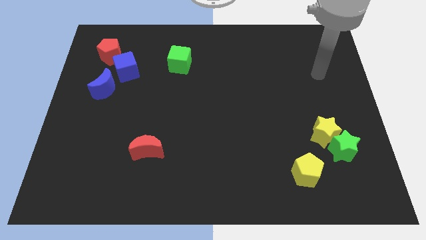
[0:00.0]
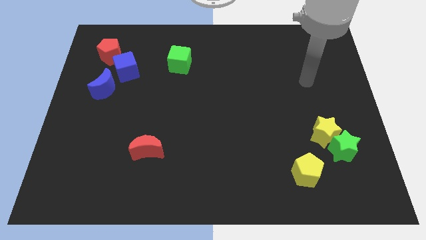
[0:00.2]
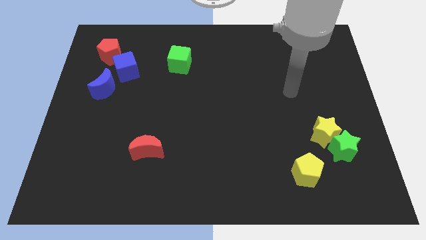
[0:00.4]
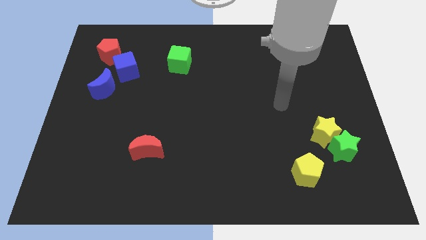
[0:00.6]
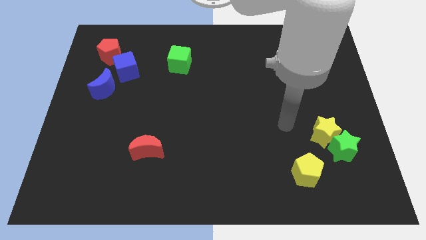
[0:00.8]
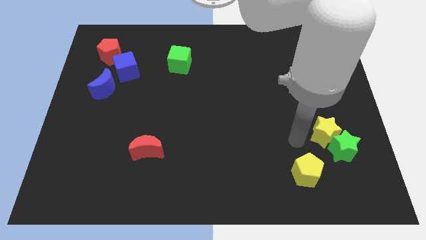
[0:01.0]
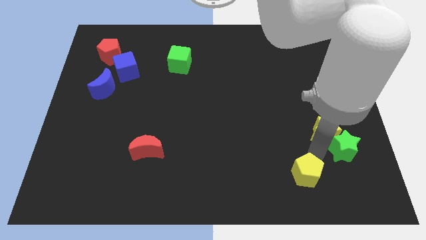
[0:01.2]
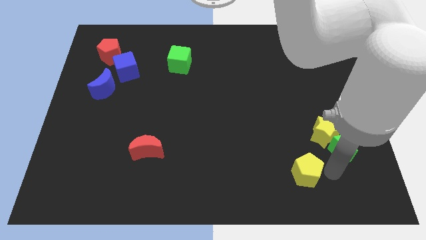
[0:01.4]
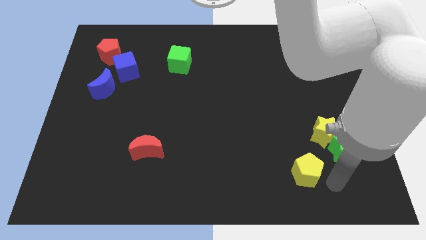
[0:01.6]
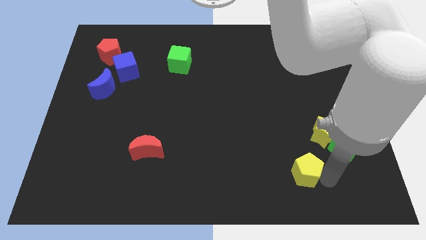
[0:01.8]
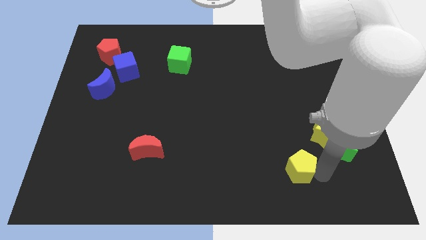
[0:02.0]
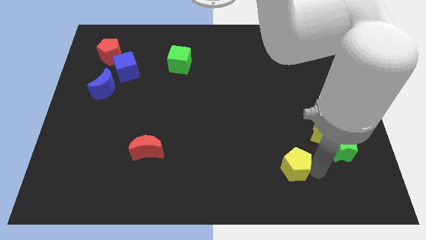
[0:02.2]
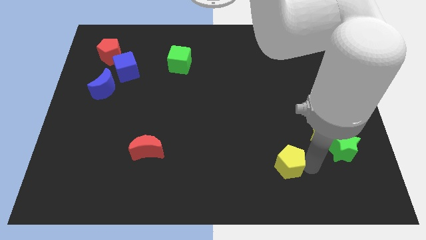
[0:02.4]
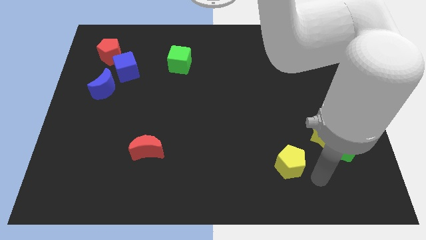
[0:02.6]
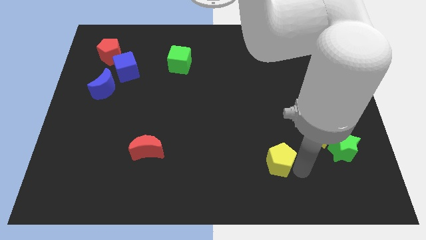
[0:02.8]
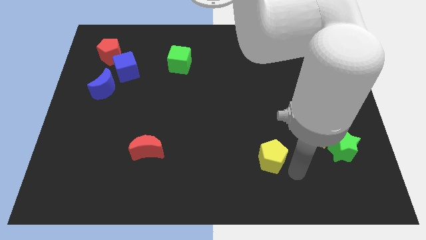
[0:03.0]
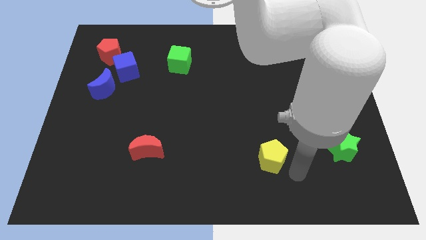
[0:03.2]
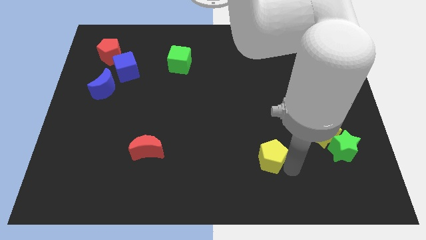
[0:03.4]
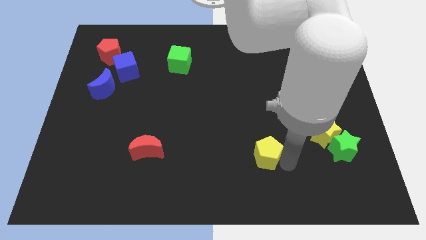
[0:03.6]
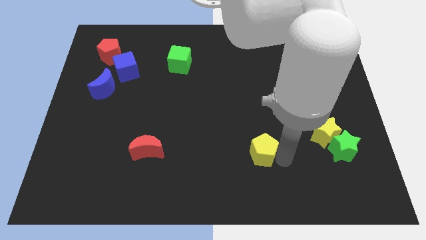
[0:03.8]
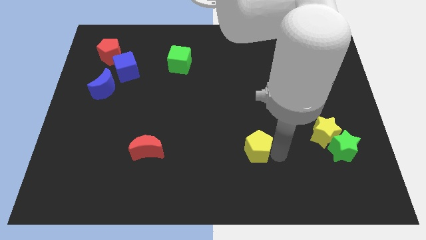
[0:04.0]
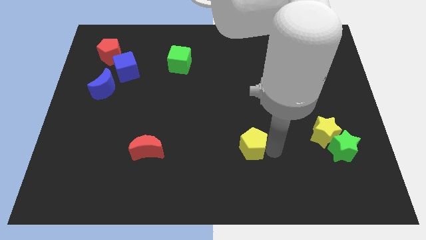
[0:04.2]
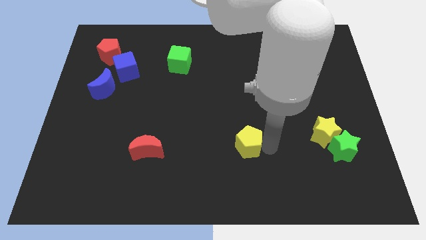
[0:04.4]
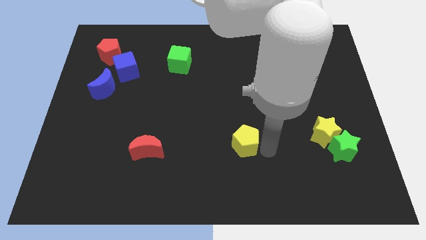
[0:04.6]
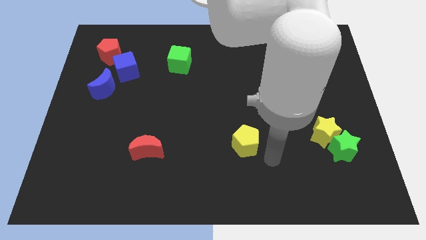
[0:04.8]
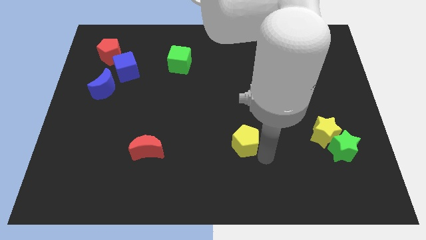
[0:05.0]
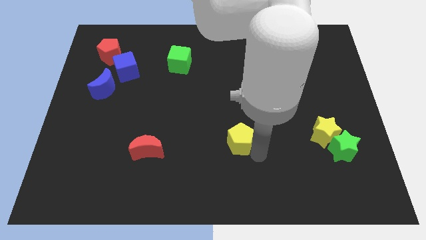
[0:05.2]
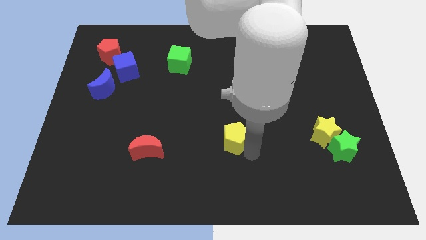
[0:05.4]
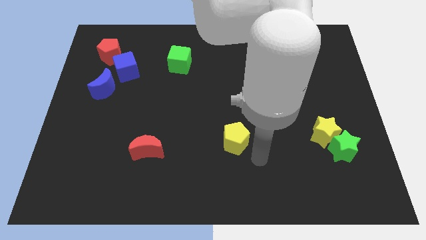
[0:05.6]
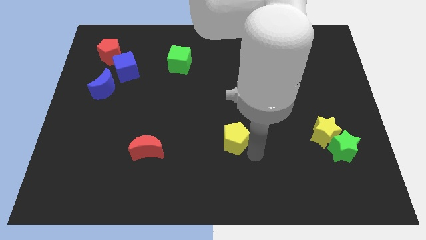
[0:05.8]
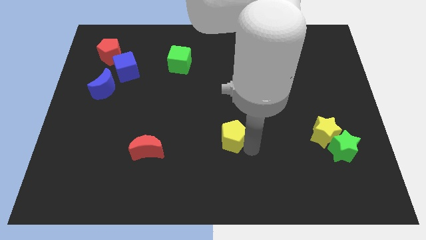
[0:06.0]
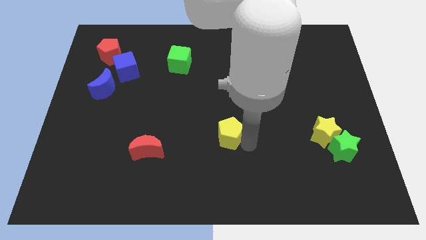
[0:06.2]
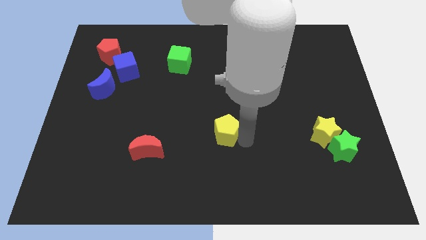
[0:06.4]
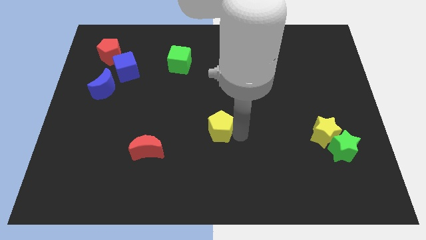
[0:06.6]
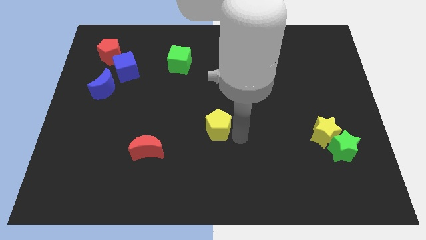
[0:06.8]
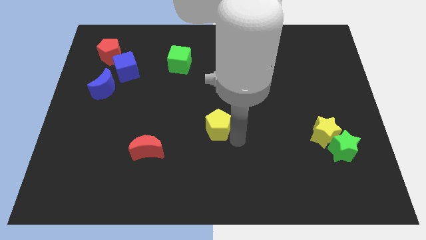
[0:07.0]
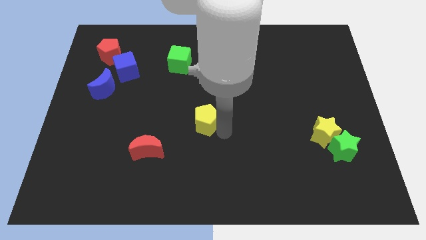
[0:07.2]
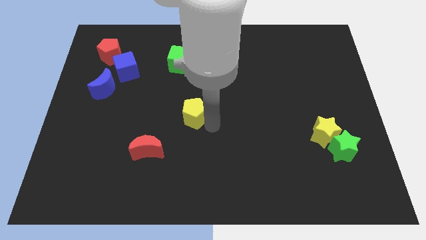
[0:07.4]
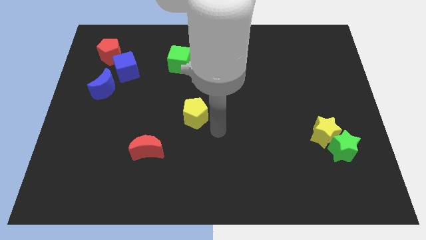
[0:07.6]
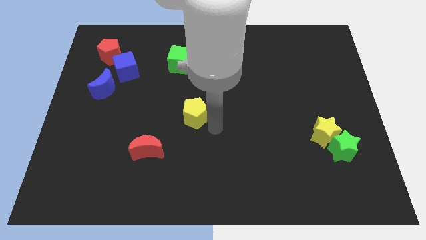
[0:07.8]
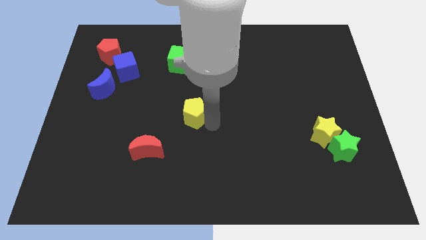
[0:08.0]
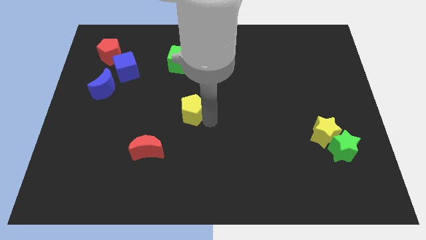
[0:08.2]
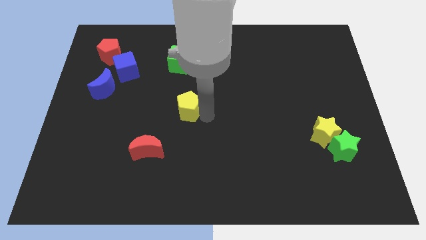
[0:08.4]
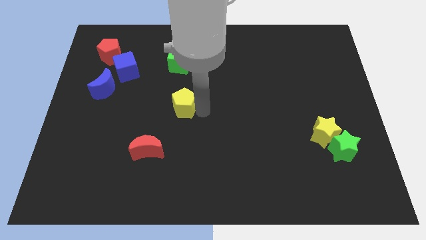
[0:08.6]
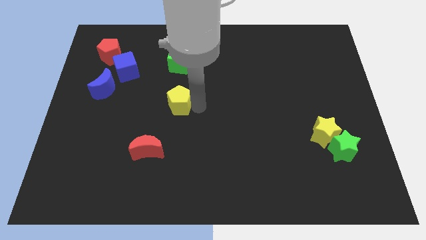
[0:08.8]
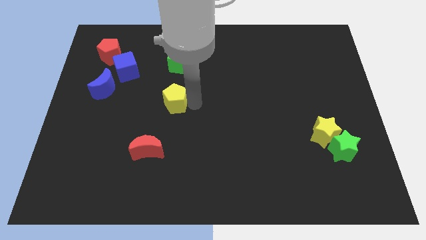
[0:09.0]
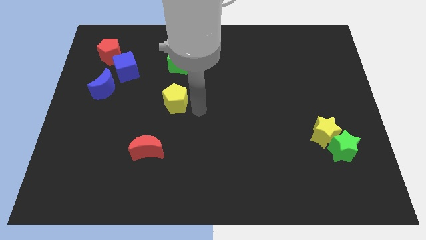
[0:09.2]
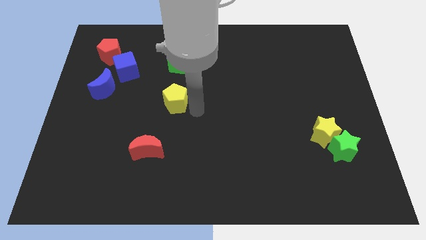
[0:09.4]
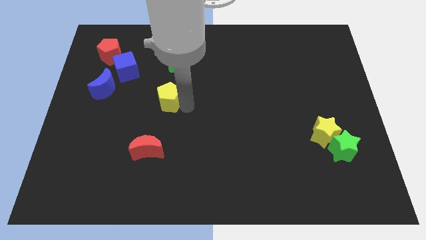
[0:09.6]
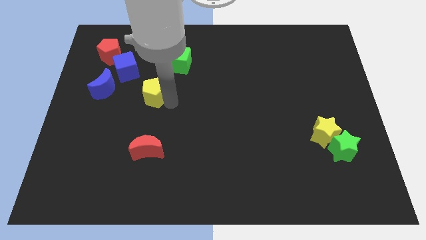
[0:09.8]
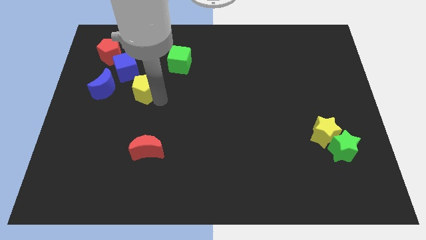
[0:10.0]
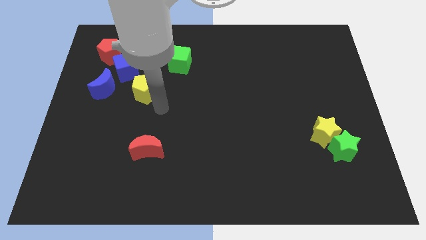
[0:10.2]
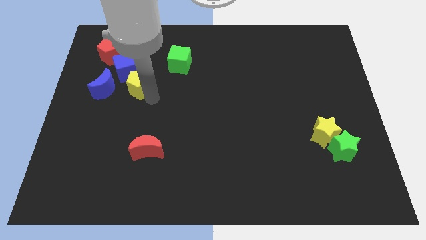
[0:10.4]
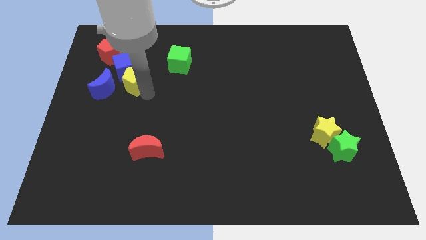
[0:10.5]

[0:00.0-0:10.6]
move the yellow pentagon next to the blue cube

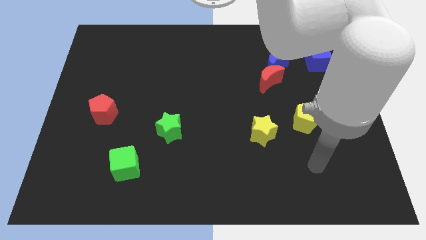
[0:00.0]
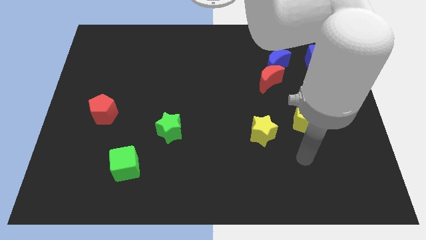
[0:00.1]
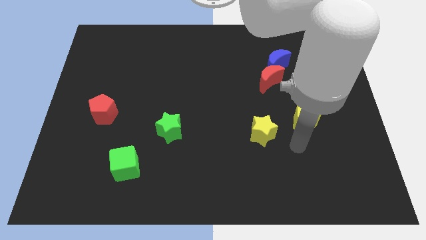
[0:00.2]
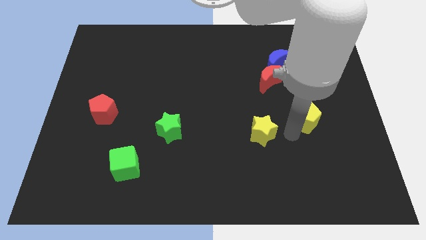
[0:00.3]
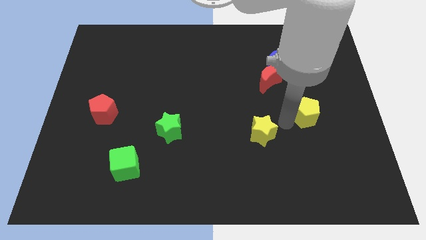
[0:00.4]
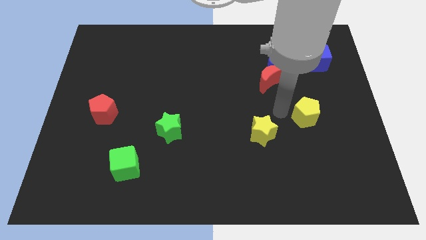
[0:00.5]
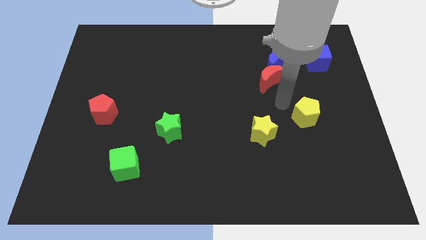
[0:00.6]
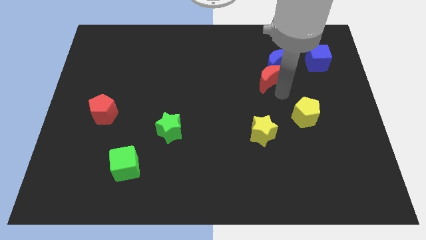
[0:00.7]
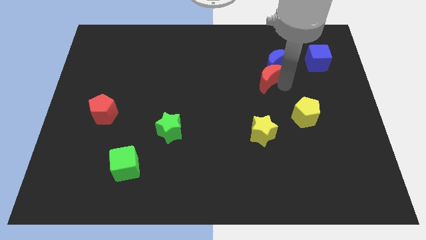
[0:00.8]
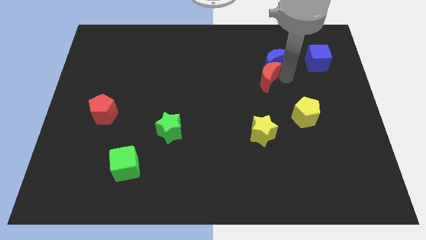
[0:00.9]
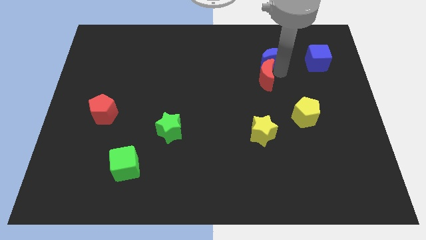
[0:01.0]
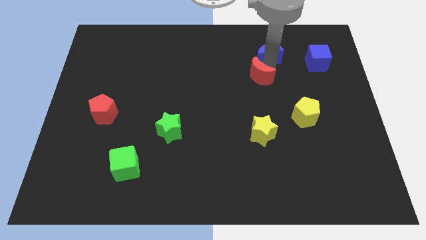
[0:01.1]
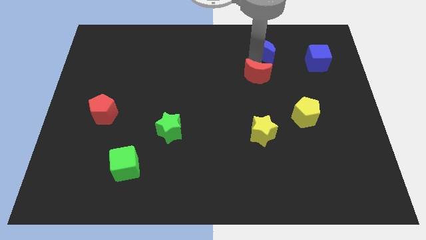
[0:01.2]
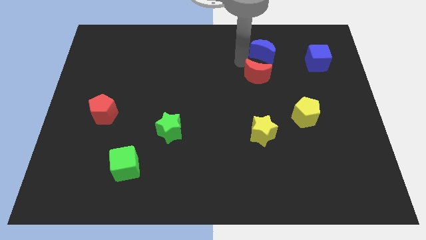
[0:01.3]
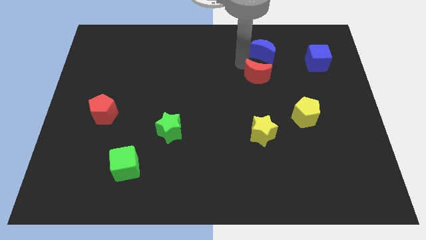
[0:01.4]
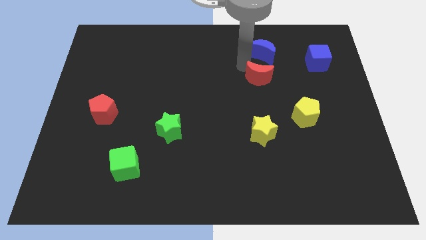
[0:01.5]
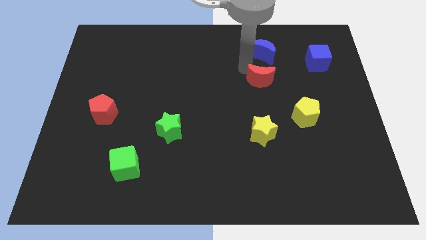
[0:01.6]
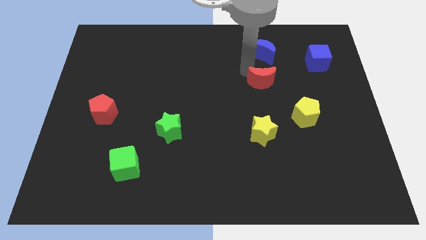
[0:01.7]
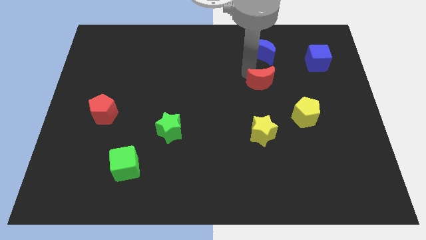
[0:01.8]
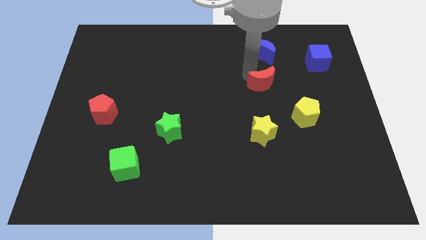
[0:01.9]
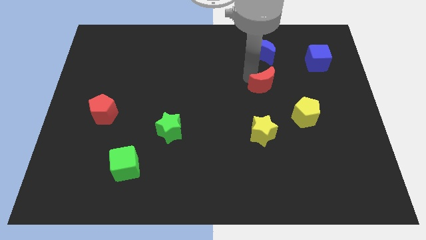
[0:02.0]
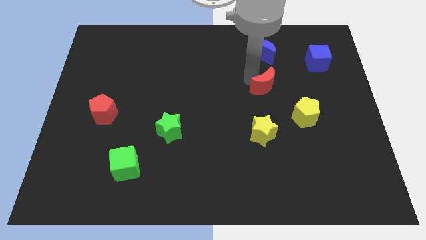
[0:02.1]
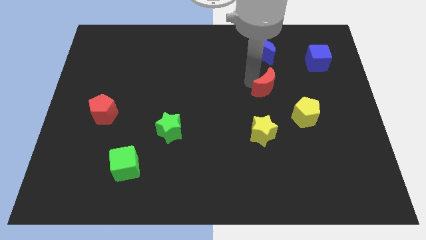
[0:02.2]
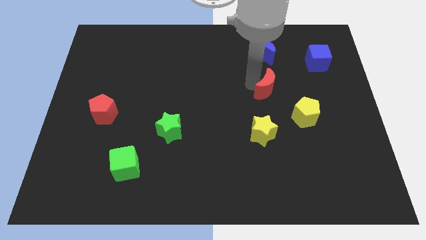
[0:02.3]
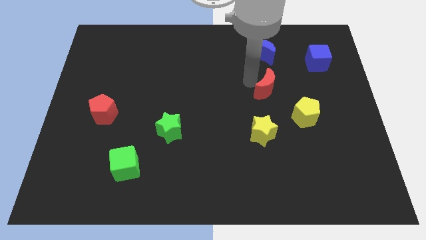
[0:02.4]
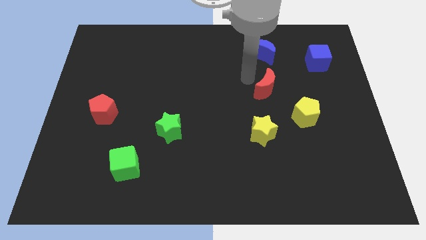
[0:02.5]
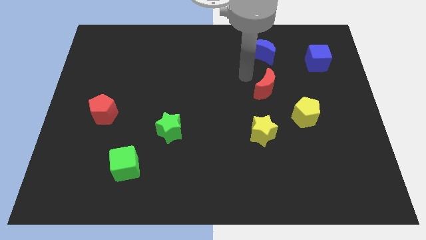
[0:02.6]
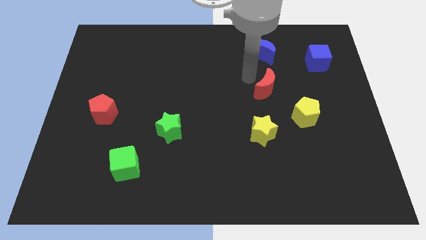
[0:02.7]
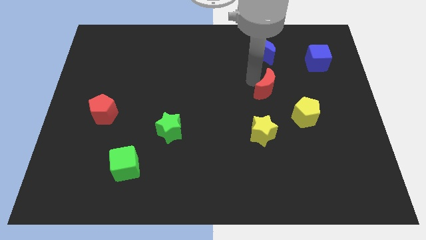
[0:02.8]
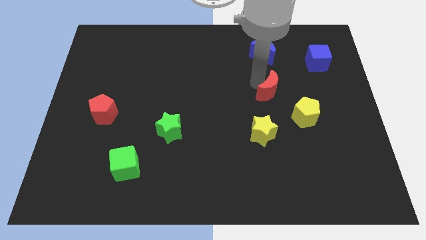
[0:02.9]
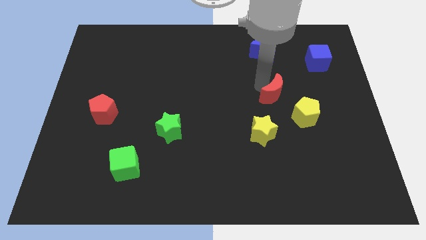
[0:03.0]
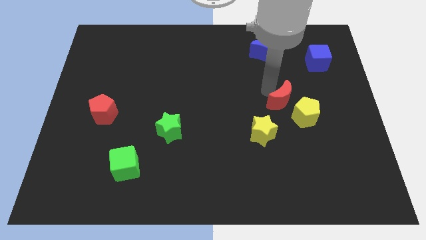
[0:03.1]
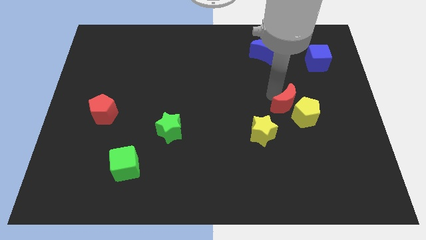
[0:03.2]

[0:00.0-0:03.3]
move the red moon towards the yellow pentagon
